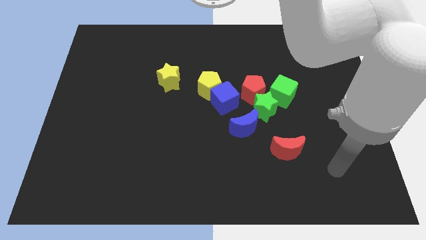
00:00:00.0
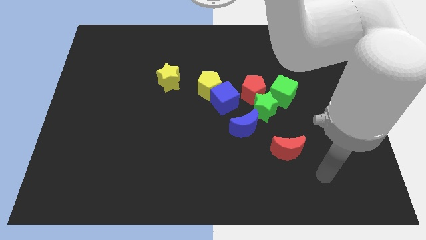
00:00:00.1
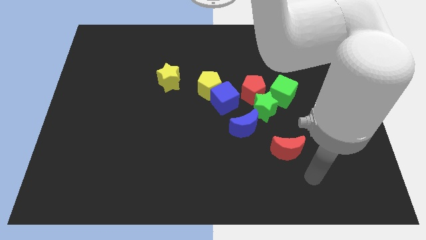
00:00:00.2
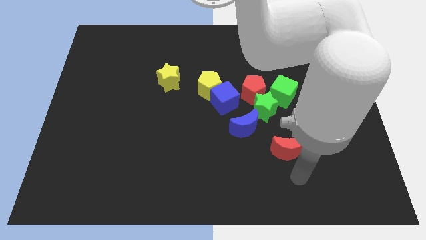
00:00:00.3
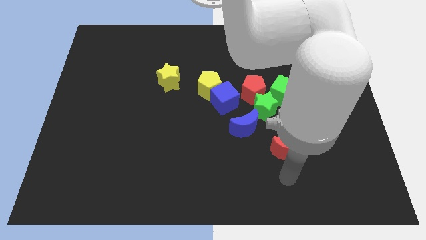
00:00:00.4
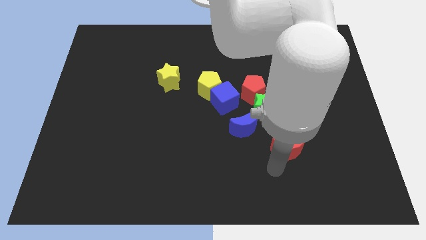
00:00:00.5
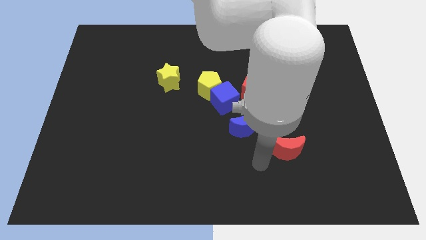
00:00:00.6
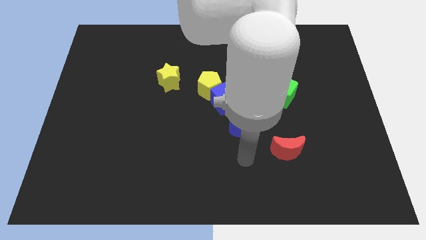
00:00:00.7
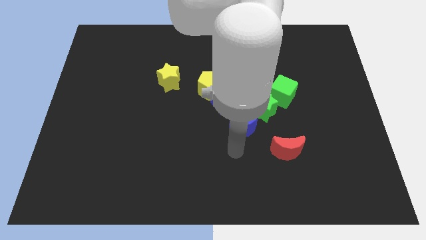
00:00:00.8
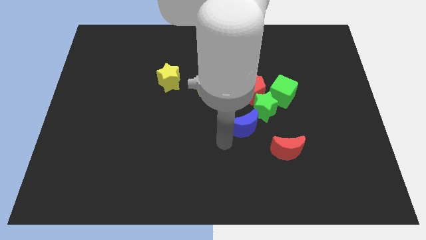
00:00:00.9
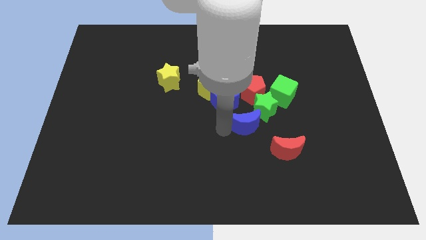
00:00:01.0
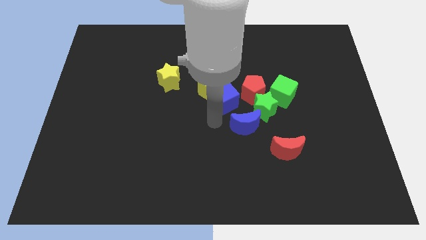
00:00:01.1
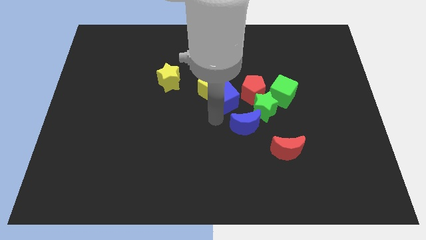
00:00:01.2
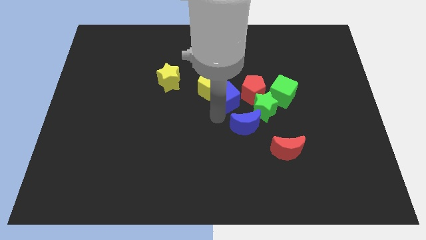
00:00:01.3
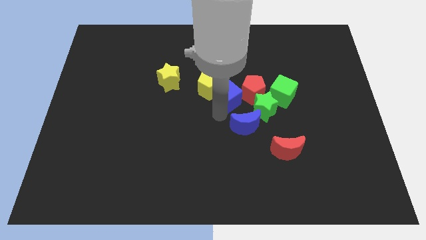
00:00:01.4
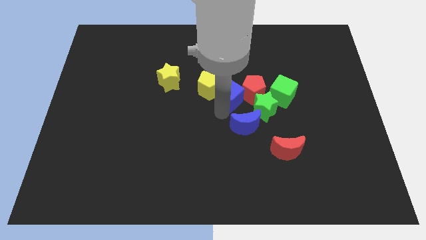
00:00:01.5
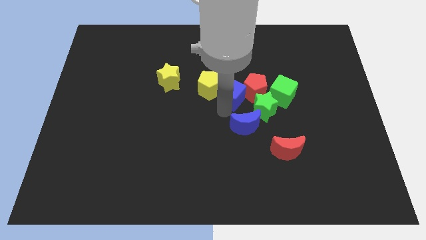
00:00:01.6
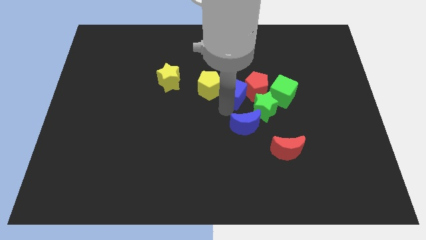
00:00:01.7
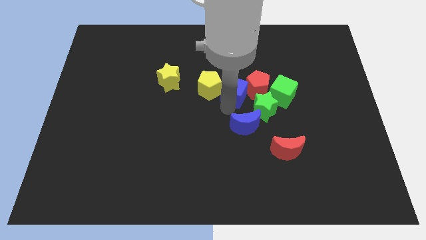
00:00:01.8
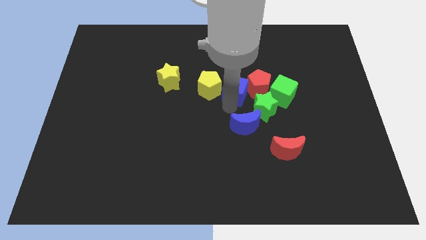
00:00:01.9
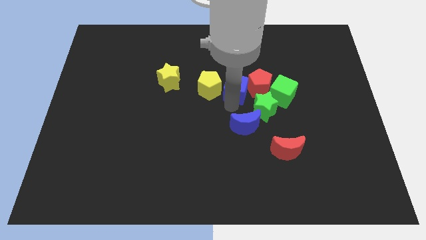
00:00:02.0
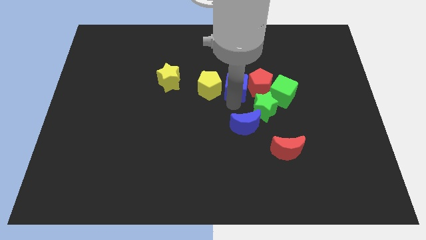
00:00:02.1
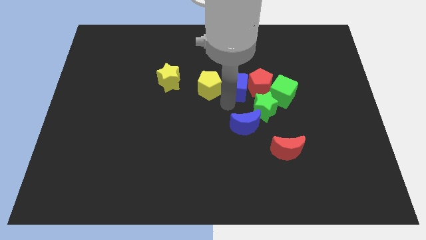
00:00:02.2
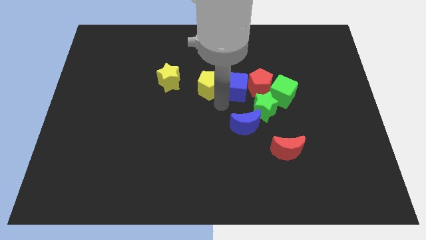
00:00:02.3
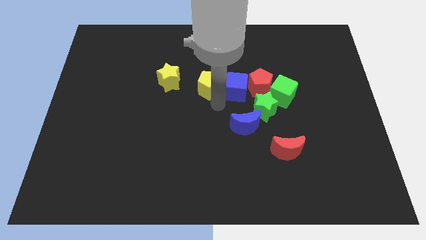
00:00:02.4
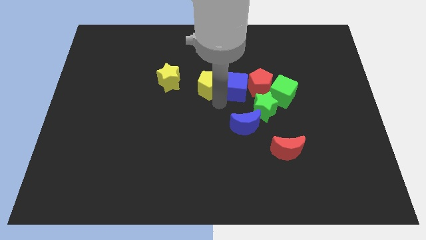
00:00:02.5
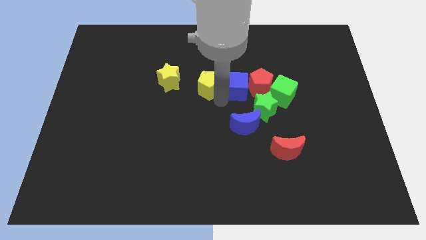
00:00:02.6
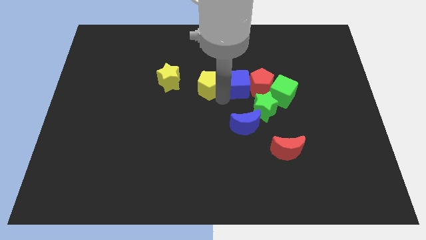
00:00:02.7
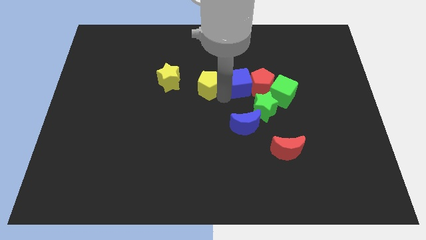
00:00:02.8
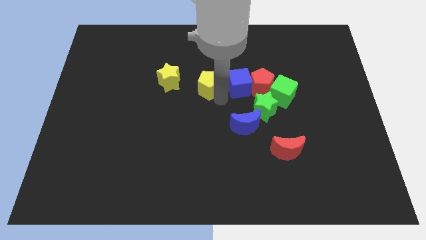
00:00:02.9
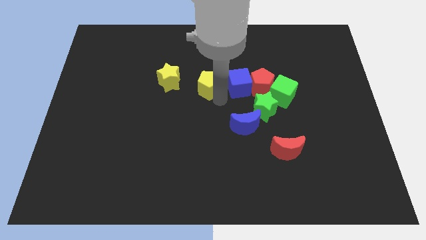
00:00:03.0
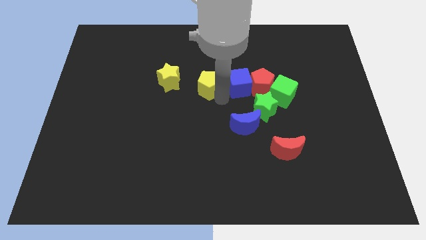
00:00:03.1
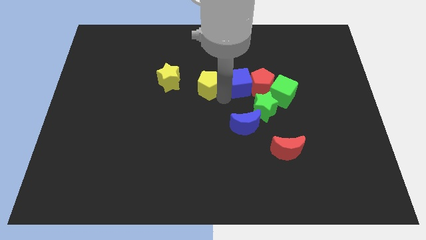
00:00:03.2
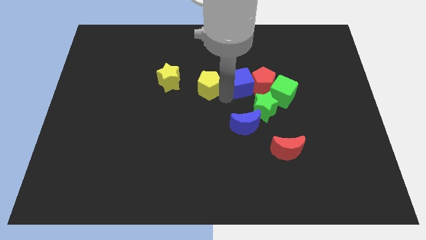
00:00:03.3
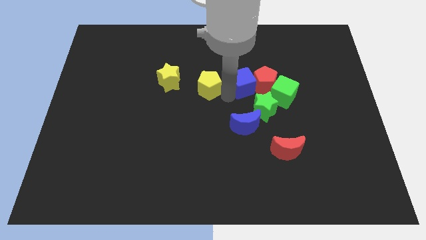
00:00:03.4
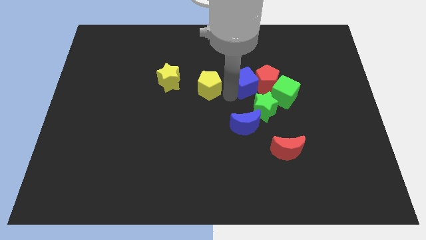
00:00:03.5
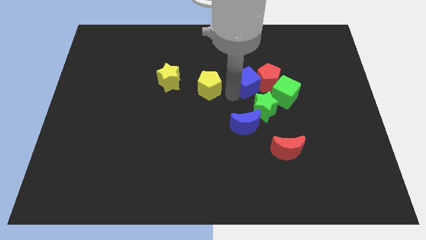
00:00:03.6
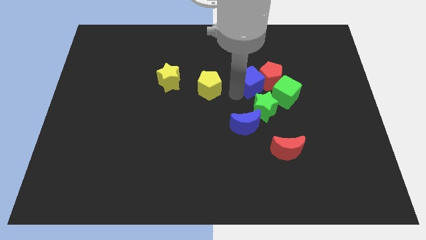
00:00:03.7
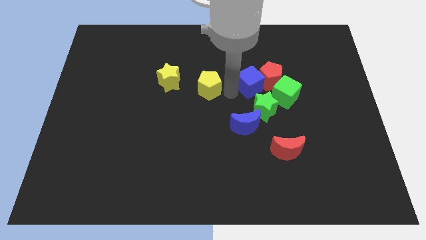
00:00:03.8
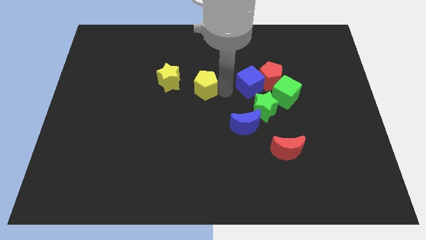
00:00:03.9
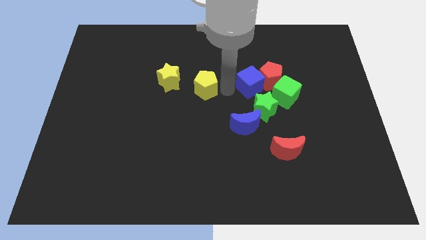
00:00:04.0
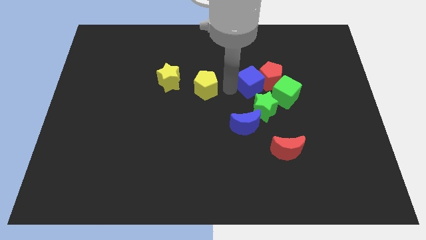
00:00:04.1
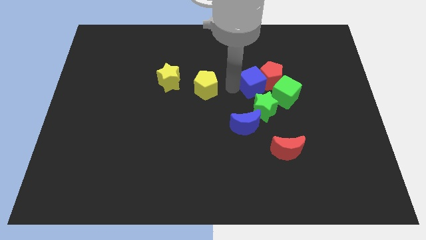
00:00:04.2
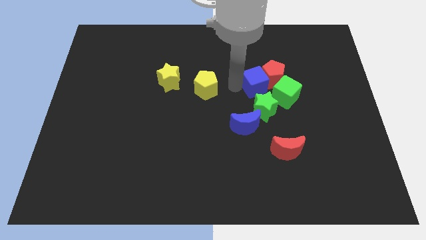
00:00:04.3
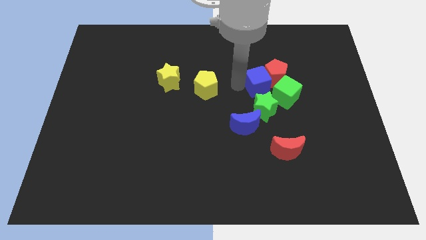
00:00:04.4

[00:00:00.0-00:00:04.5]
slide the blue cube slightly to the right

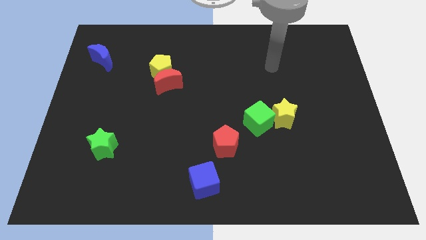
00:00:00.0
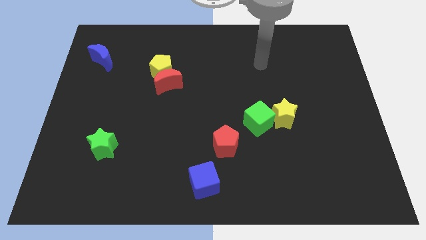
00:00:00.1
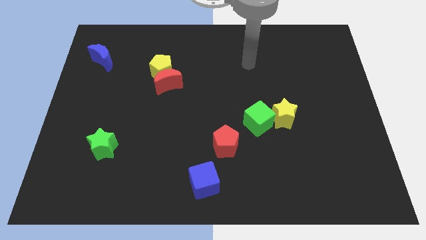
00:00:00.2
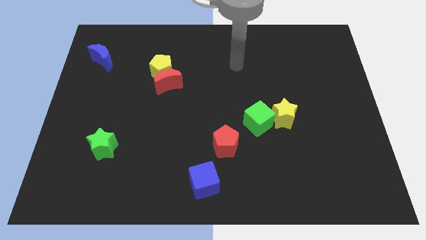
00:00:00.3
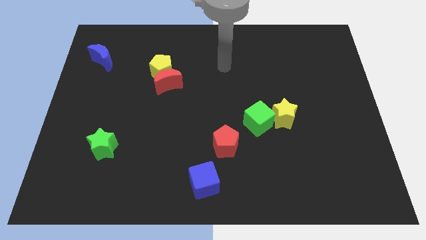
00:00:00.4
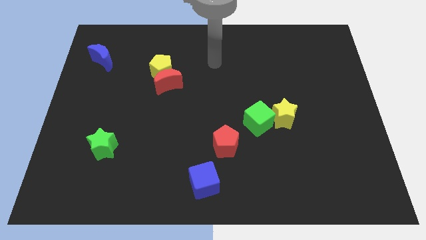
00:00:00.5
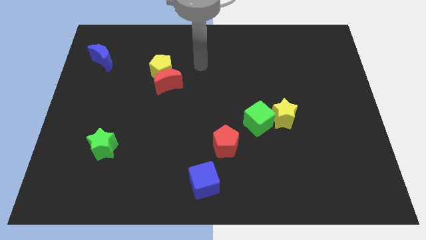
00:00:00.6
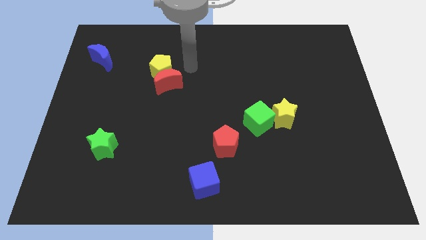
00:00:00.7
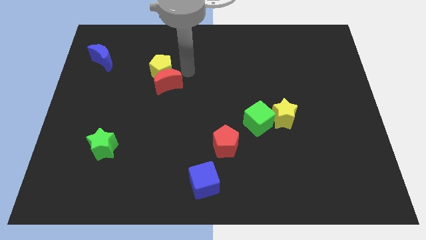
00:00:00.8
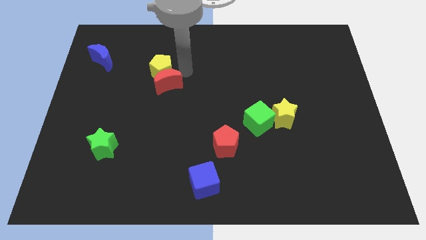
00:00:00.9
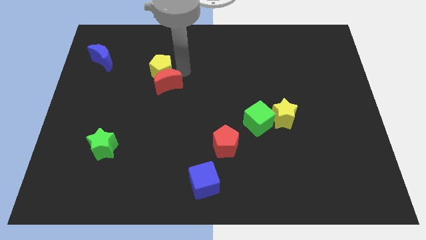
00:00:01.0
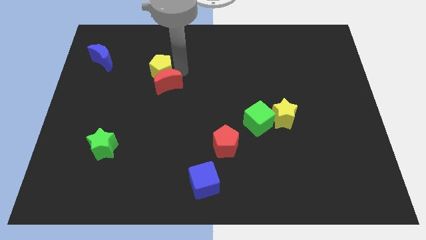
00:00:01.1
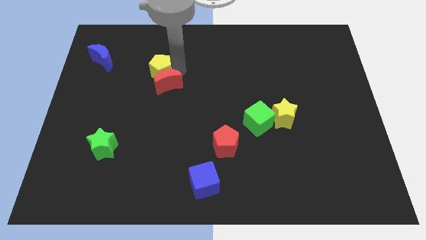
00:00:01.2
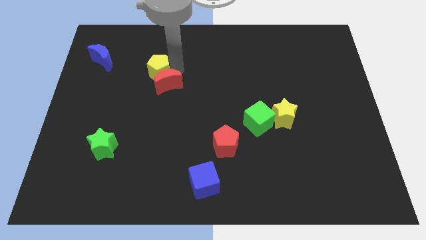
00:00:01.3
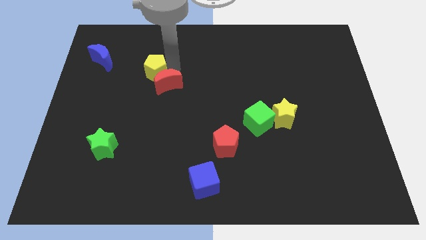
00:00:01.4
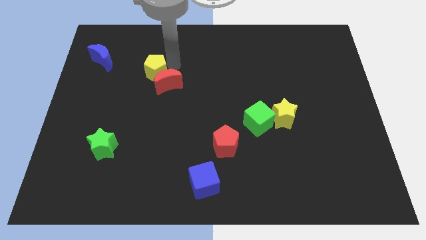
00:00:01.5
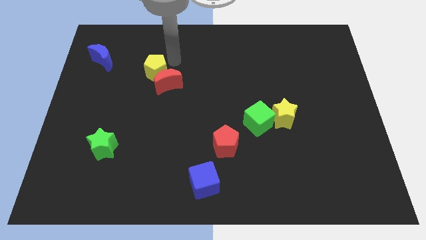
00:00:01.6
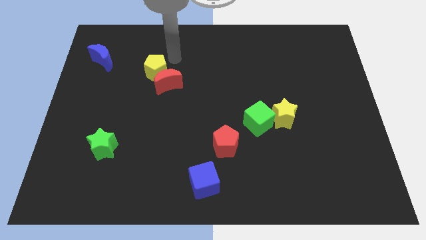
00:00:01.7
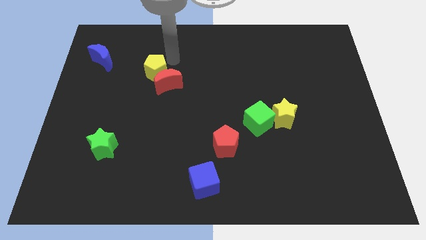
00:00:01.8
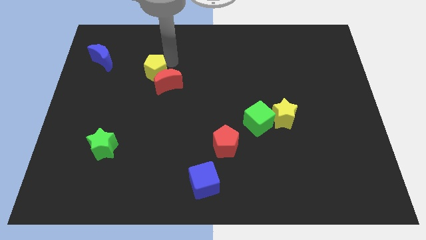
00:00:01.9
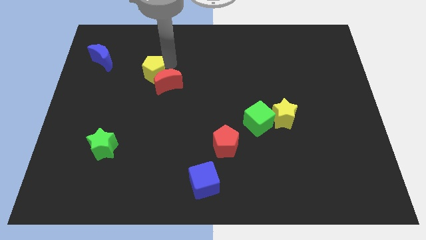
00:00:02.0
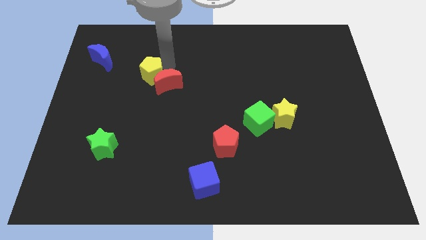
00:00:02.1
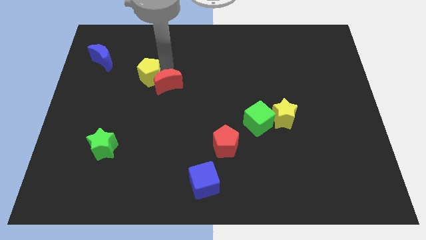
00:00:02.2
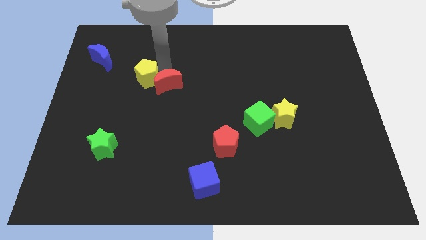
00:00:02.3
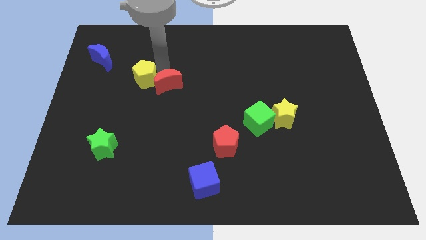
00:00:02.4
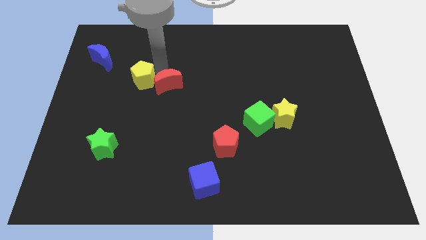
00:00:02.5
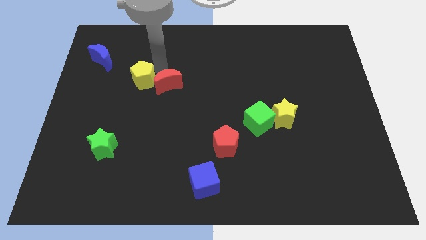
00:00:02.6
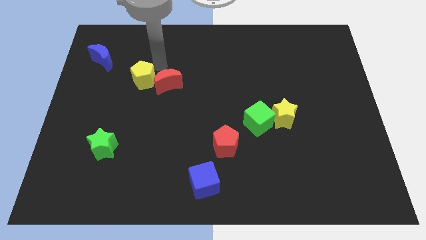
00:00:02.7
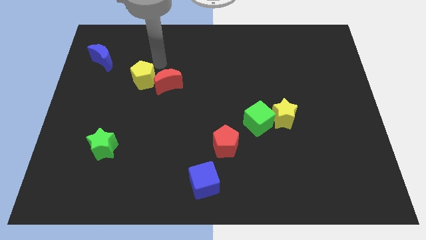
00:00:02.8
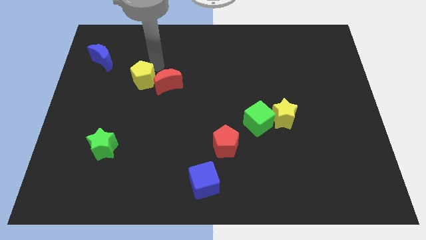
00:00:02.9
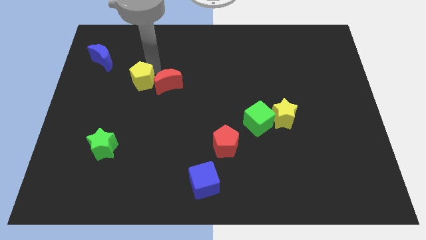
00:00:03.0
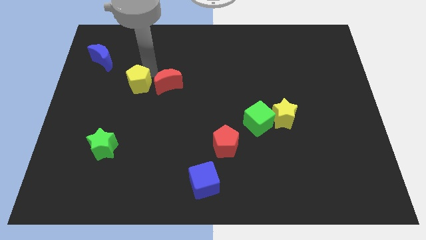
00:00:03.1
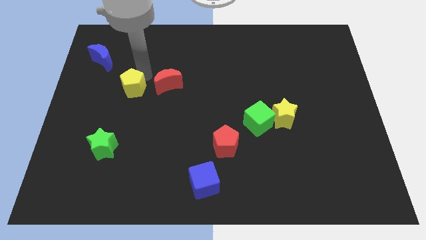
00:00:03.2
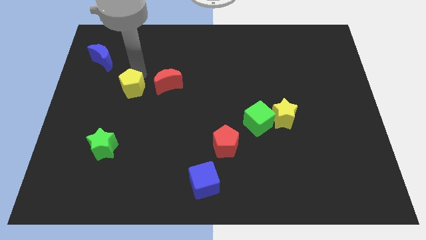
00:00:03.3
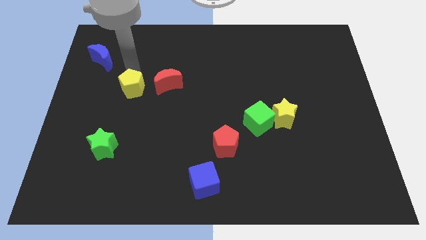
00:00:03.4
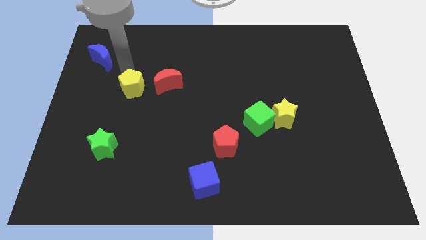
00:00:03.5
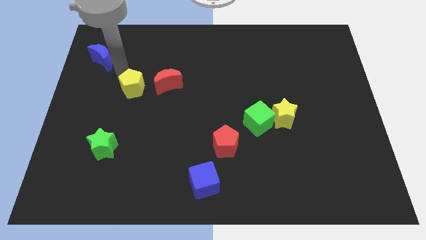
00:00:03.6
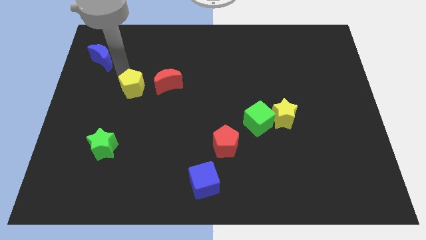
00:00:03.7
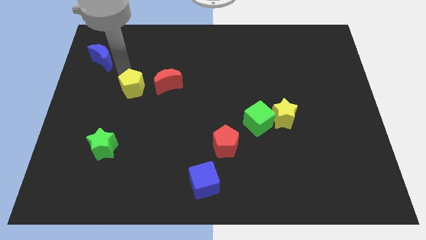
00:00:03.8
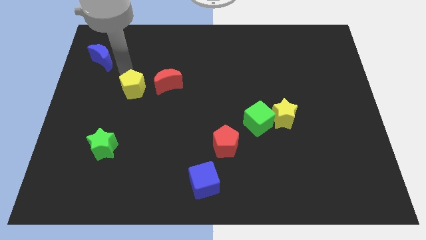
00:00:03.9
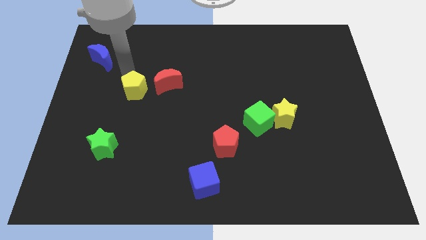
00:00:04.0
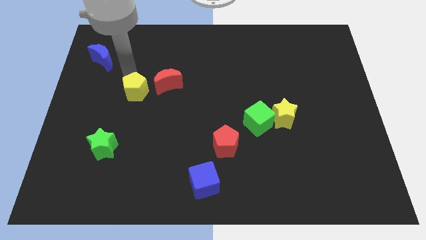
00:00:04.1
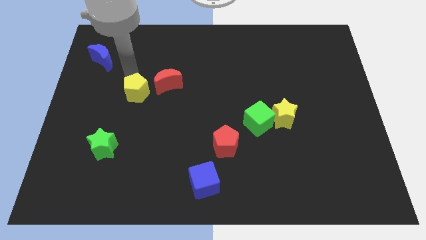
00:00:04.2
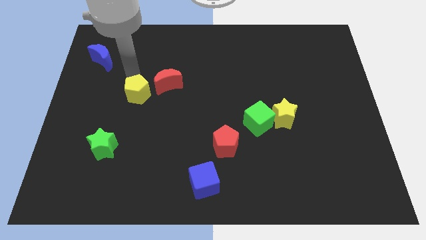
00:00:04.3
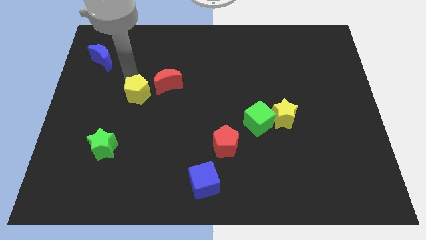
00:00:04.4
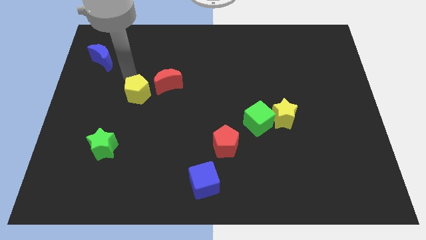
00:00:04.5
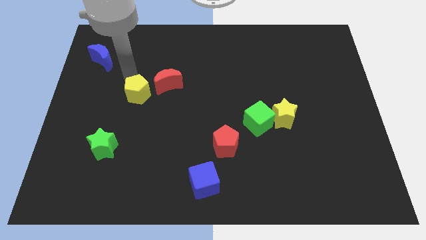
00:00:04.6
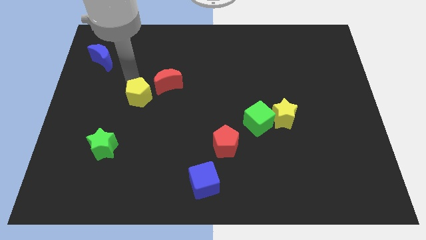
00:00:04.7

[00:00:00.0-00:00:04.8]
push the yellow pentagon a little bit downwards
